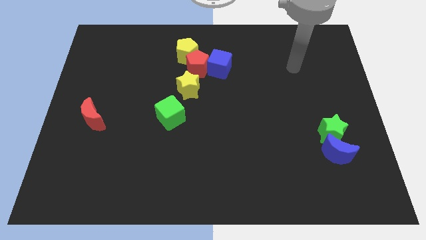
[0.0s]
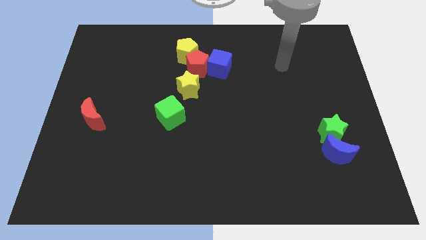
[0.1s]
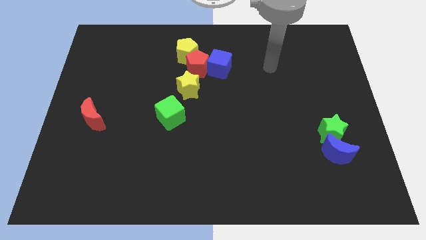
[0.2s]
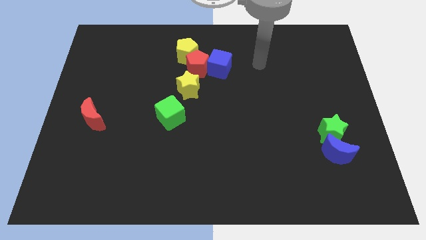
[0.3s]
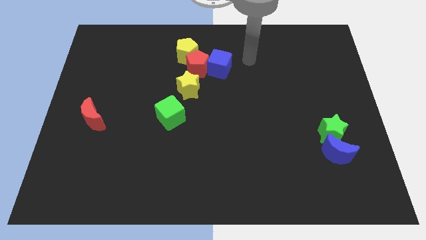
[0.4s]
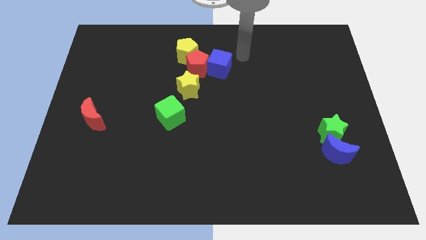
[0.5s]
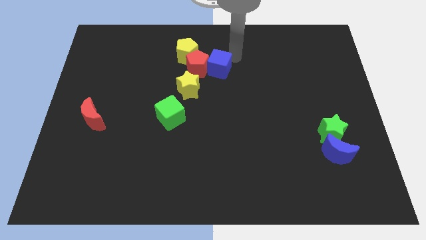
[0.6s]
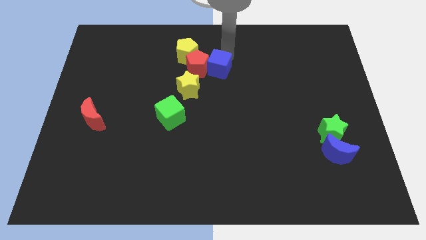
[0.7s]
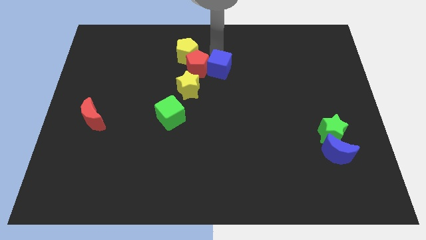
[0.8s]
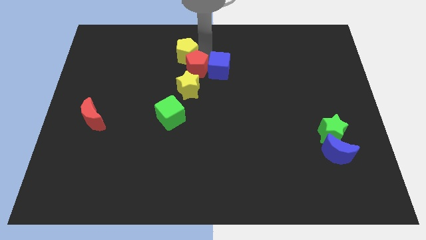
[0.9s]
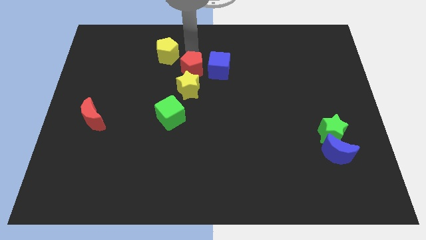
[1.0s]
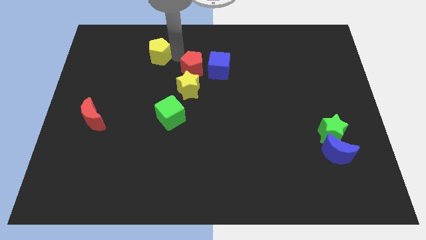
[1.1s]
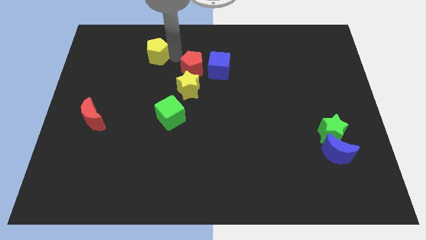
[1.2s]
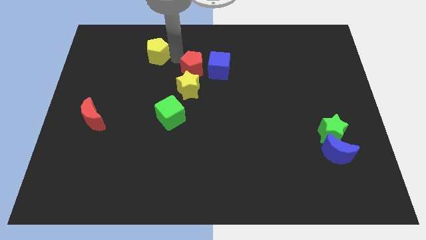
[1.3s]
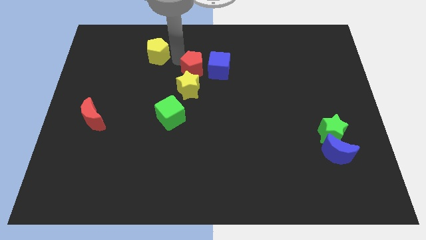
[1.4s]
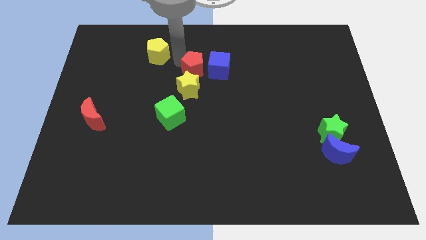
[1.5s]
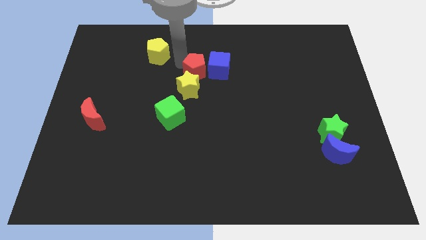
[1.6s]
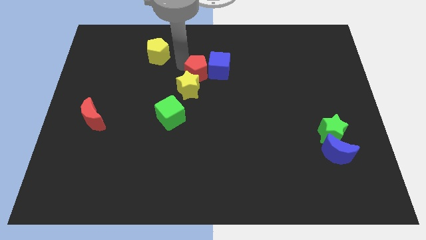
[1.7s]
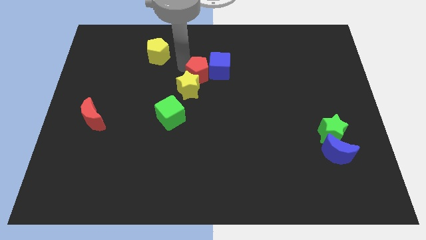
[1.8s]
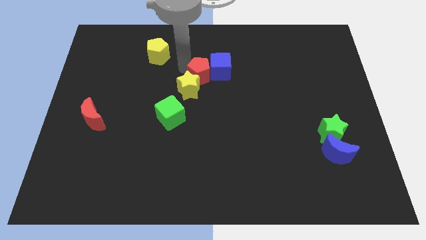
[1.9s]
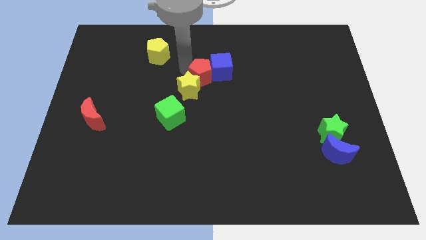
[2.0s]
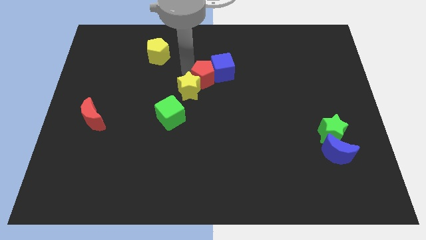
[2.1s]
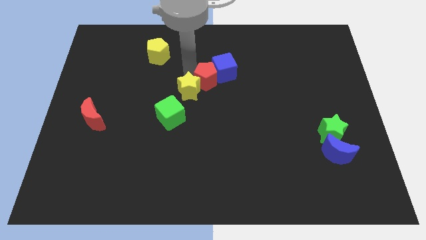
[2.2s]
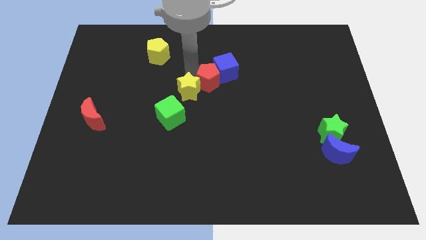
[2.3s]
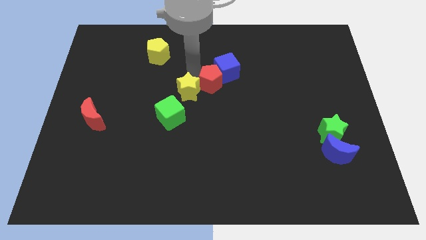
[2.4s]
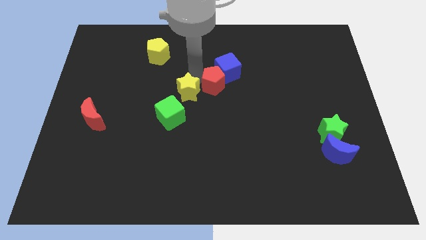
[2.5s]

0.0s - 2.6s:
slide the red pentagon somewhat down and to the right diagonally

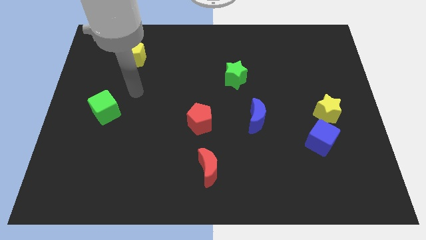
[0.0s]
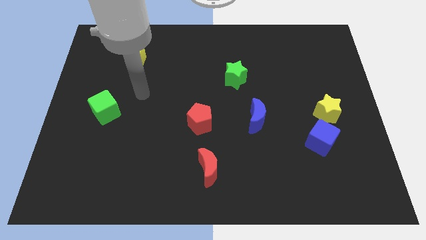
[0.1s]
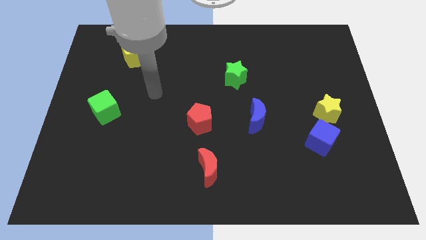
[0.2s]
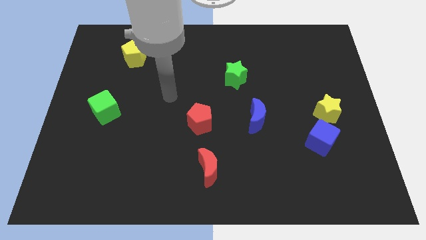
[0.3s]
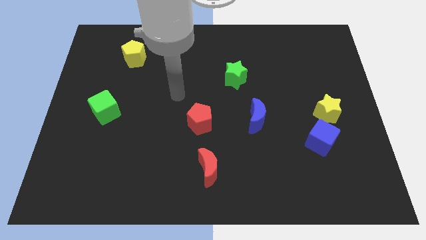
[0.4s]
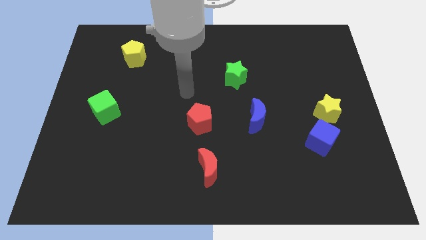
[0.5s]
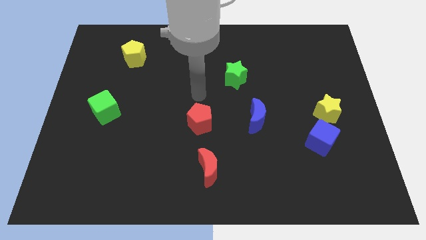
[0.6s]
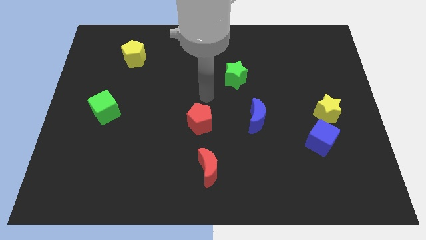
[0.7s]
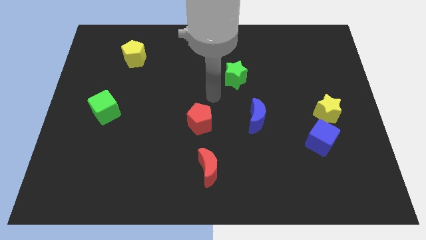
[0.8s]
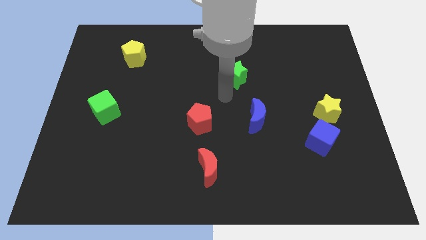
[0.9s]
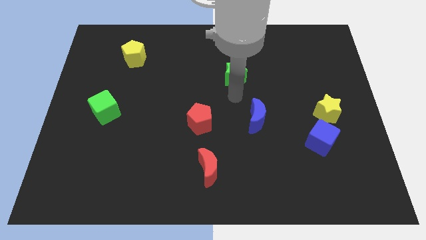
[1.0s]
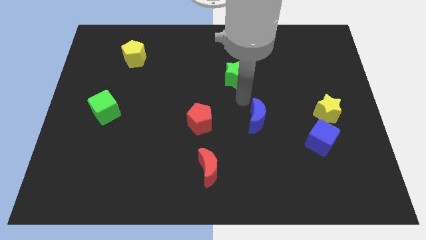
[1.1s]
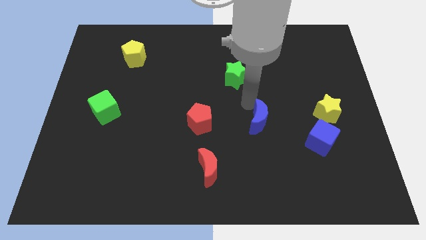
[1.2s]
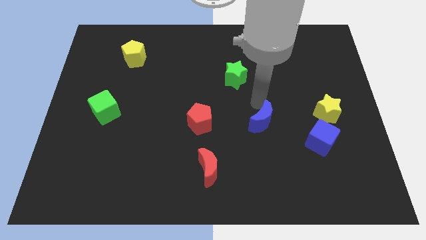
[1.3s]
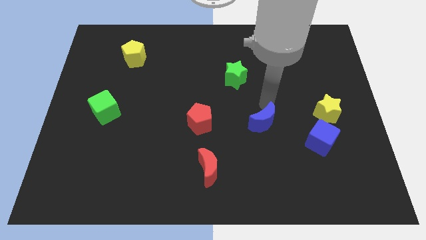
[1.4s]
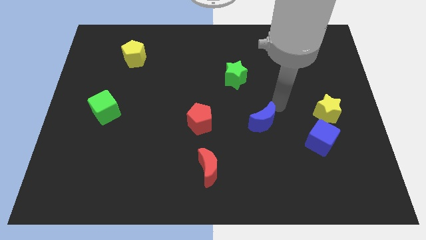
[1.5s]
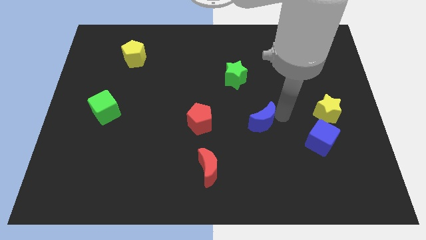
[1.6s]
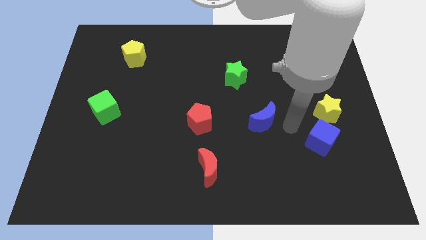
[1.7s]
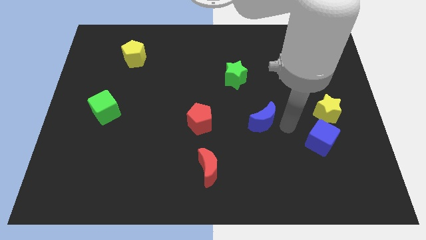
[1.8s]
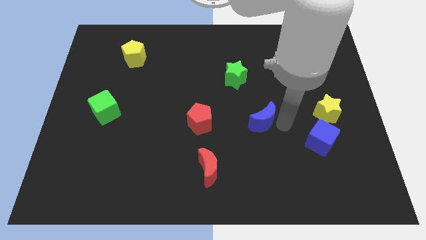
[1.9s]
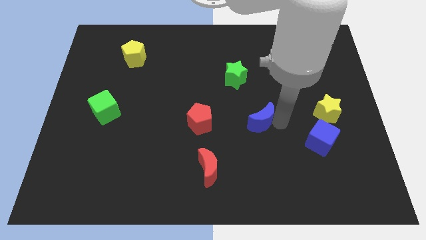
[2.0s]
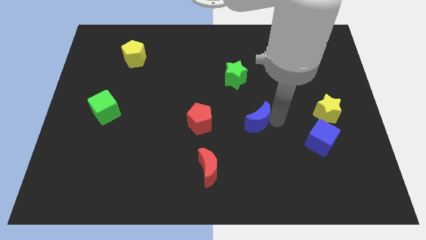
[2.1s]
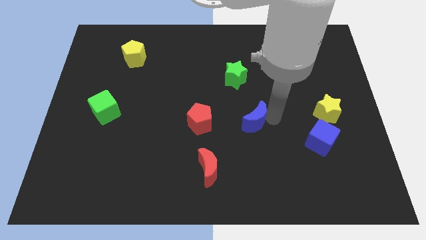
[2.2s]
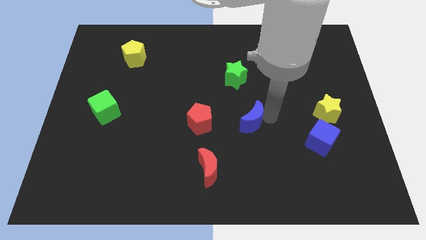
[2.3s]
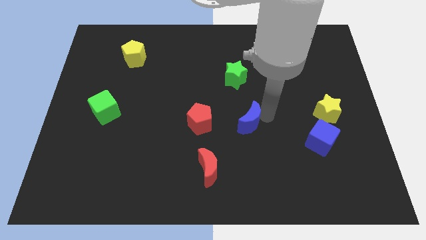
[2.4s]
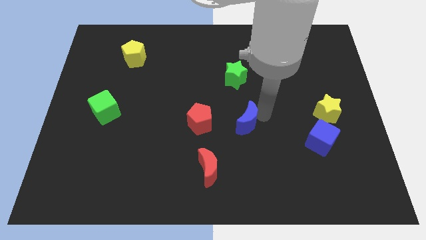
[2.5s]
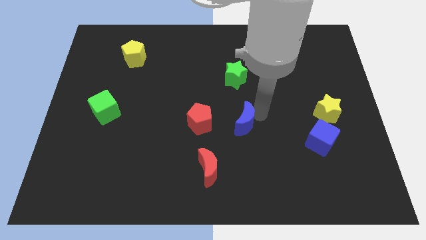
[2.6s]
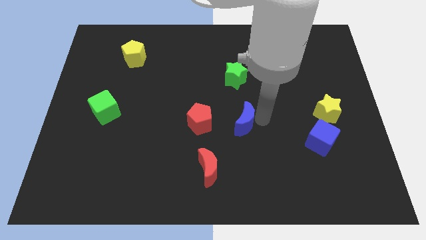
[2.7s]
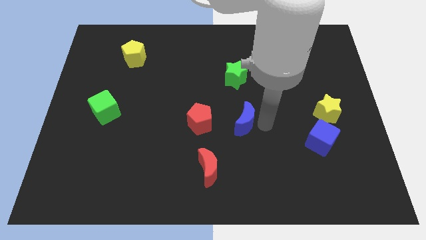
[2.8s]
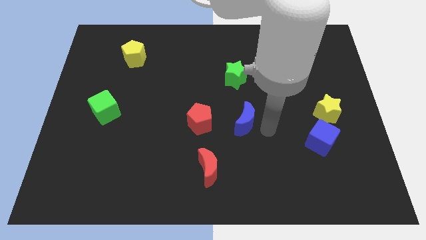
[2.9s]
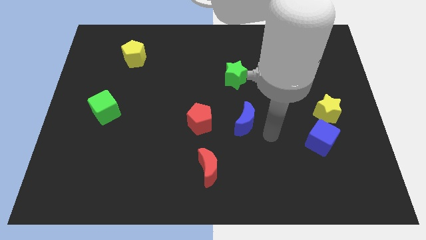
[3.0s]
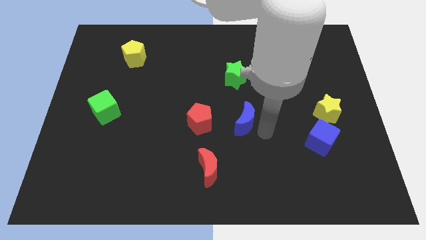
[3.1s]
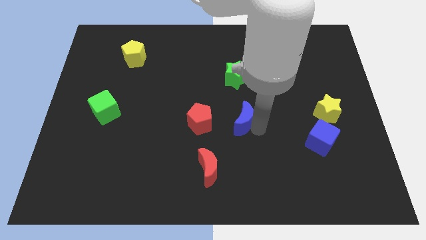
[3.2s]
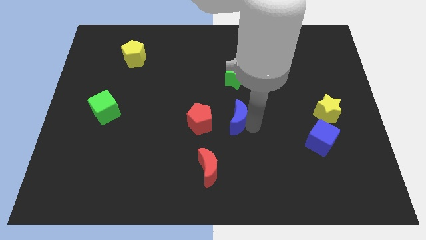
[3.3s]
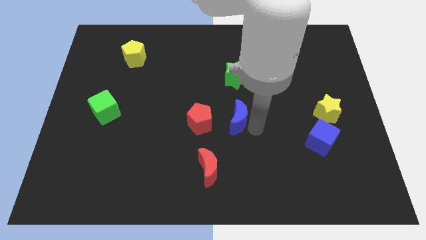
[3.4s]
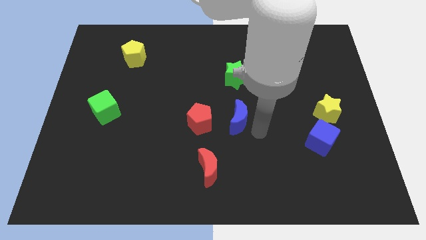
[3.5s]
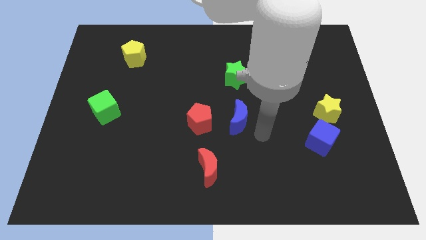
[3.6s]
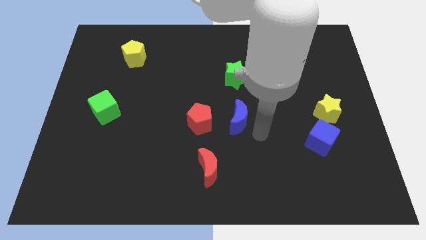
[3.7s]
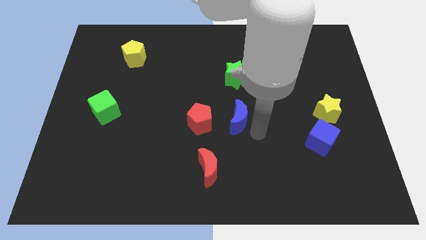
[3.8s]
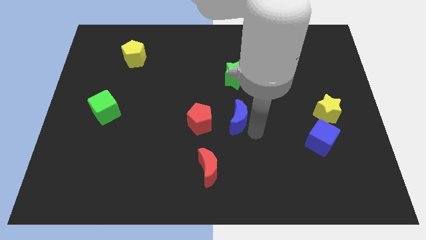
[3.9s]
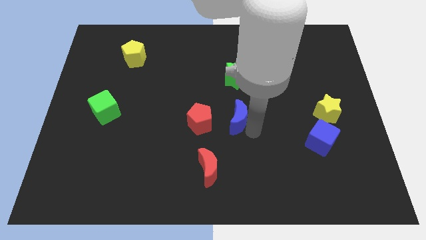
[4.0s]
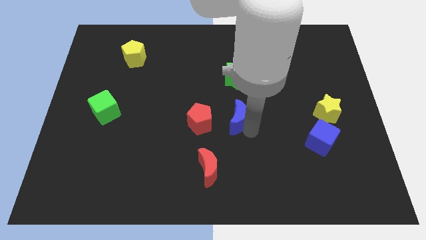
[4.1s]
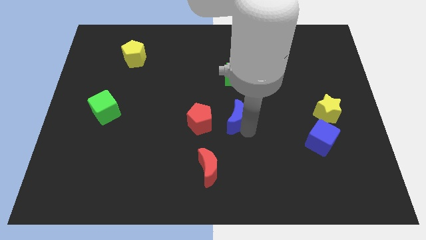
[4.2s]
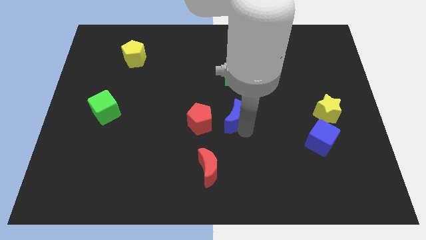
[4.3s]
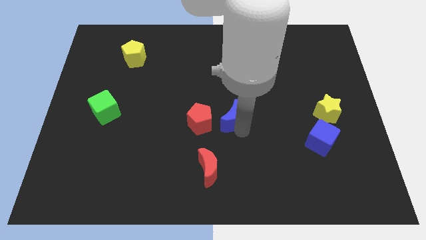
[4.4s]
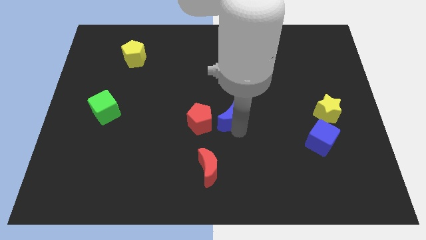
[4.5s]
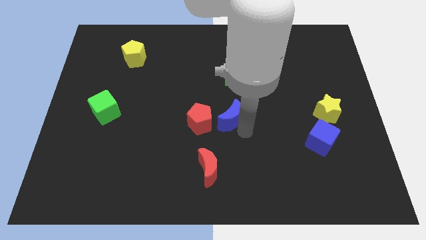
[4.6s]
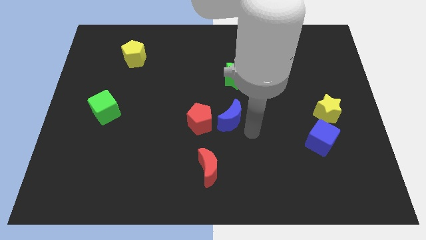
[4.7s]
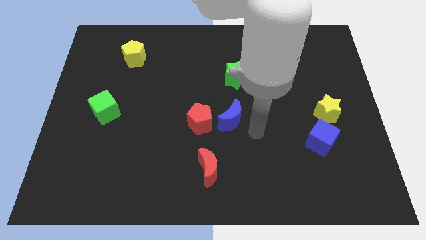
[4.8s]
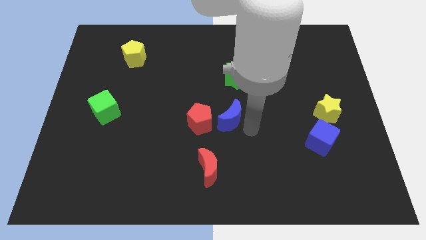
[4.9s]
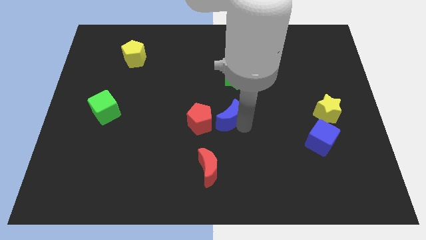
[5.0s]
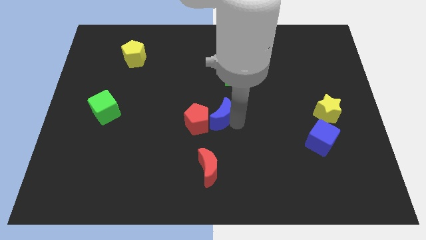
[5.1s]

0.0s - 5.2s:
move the blue moon left a little
